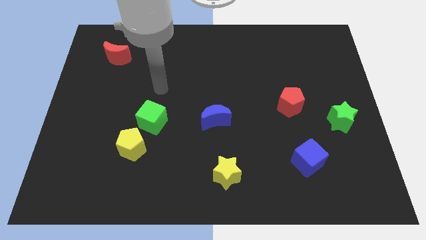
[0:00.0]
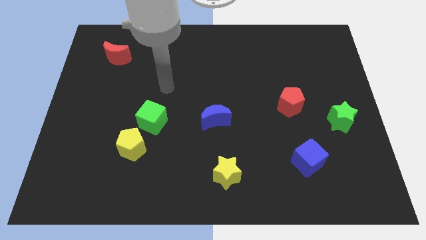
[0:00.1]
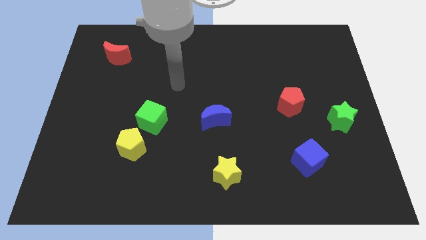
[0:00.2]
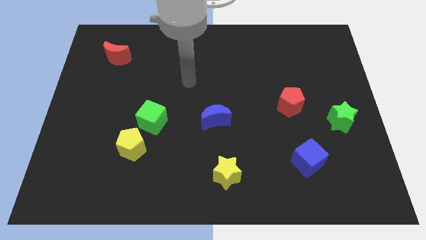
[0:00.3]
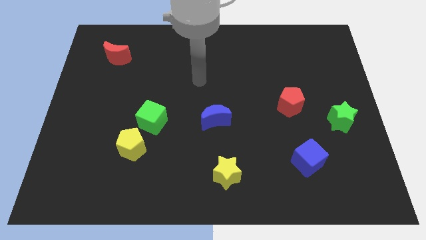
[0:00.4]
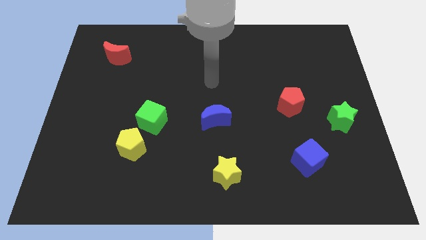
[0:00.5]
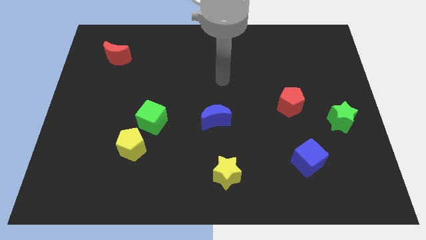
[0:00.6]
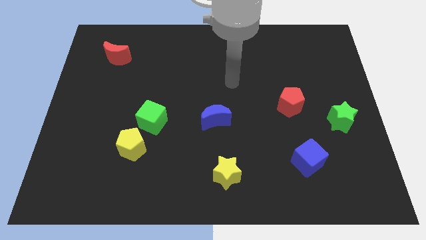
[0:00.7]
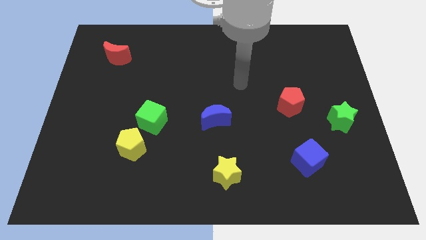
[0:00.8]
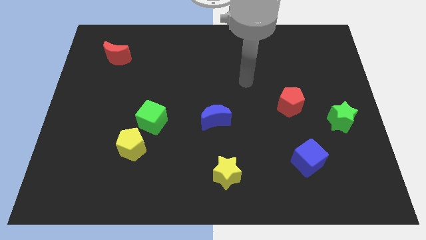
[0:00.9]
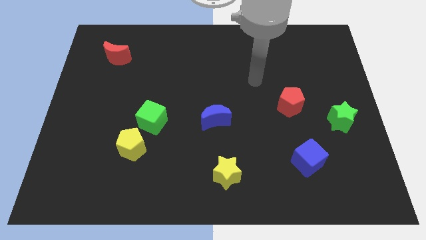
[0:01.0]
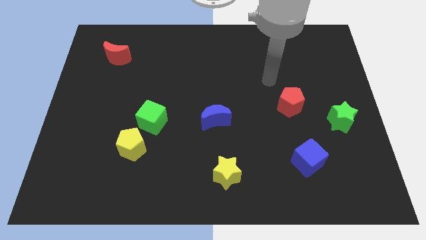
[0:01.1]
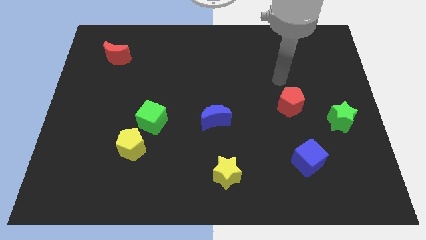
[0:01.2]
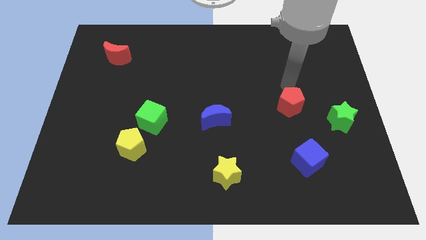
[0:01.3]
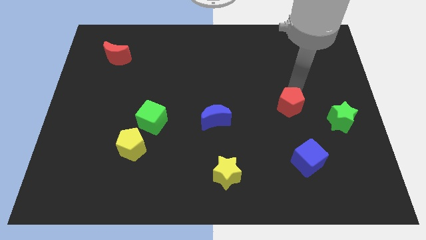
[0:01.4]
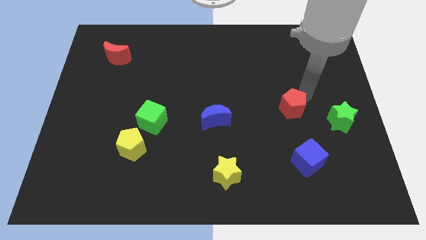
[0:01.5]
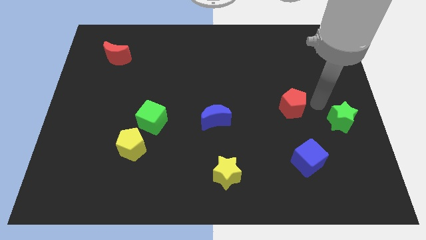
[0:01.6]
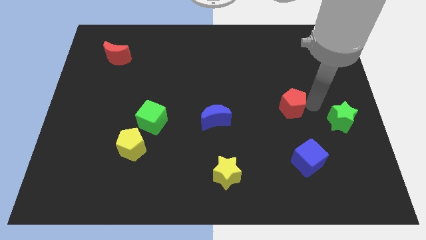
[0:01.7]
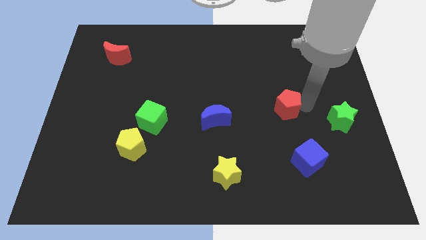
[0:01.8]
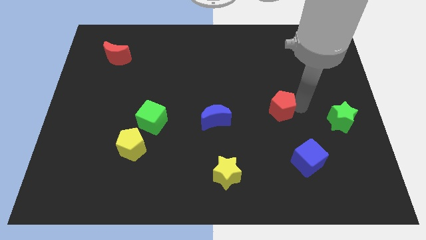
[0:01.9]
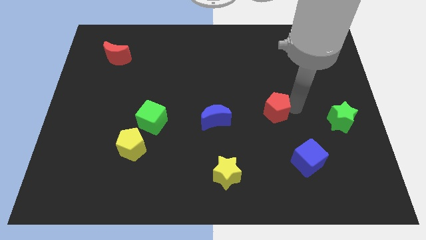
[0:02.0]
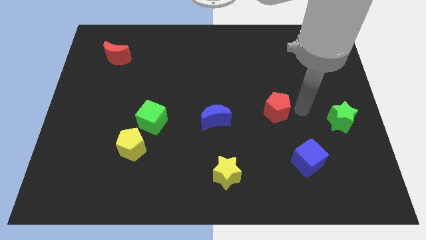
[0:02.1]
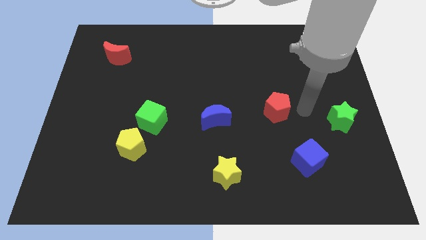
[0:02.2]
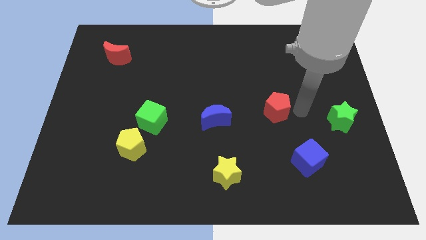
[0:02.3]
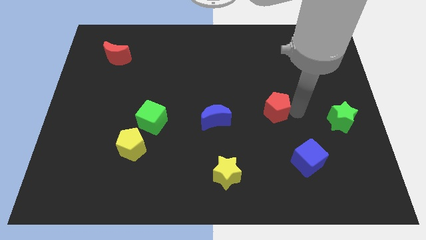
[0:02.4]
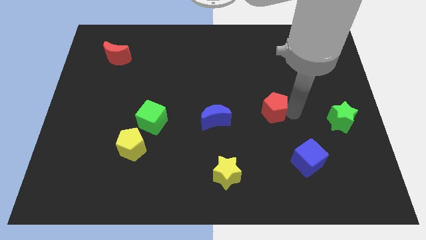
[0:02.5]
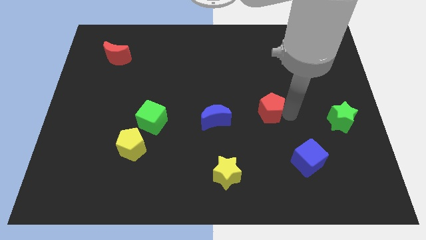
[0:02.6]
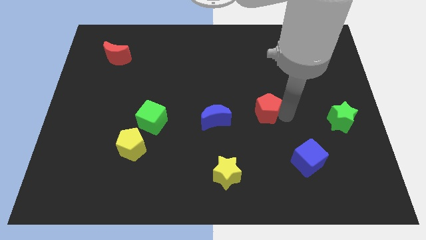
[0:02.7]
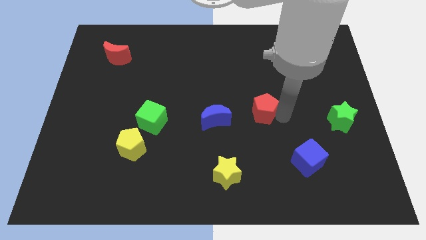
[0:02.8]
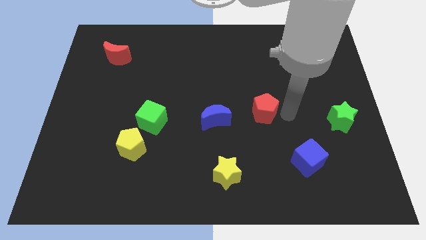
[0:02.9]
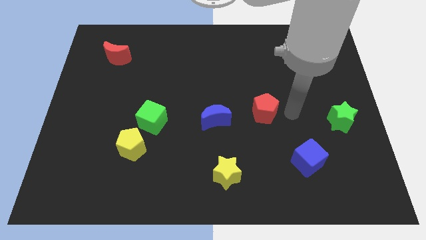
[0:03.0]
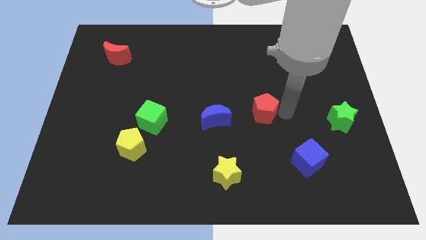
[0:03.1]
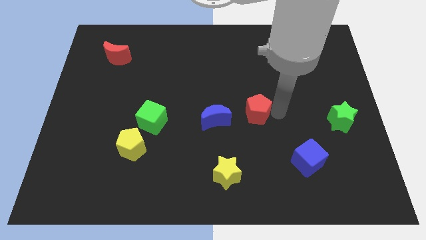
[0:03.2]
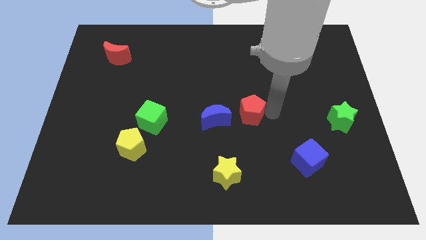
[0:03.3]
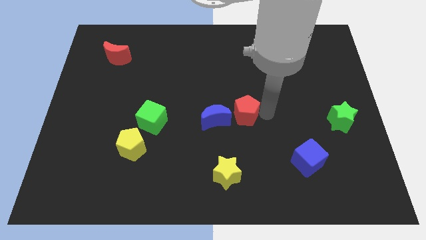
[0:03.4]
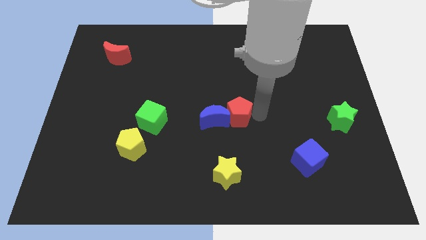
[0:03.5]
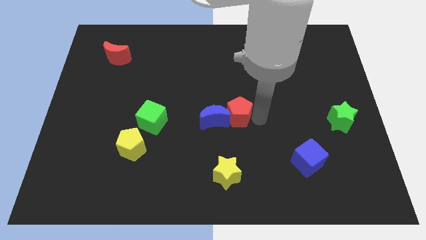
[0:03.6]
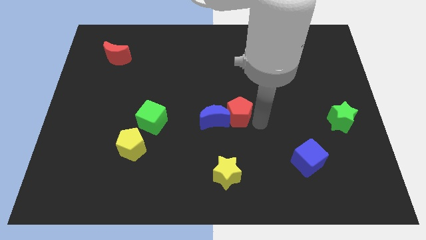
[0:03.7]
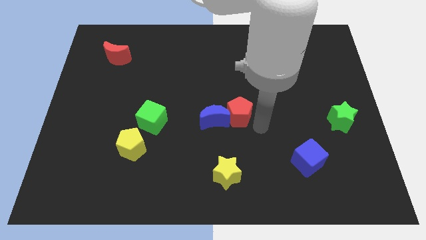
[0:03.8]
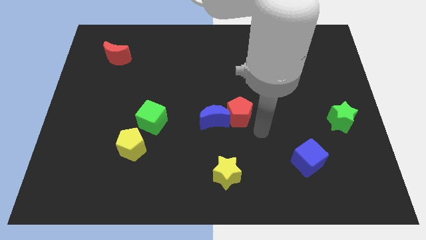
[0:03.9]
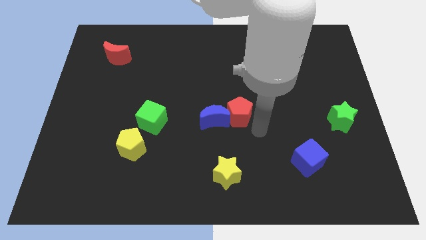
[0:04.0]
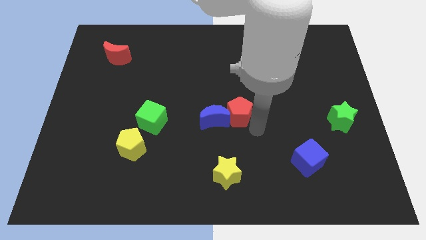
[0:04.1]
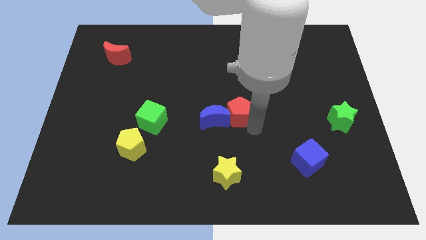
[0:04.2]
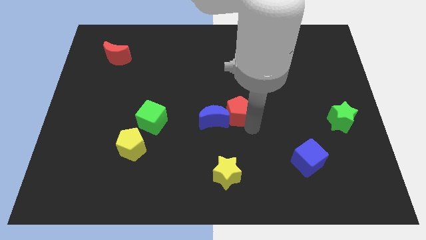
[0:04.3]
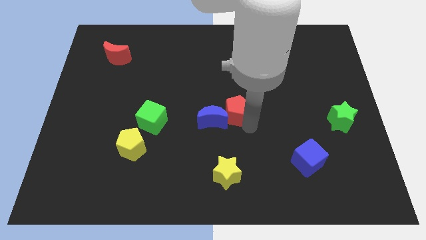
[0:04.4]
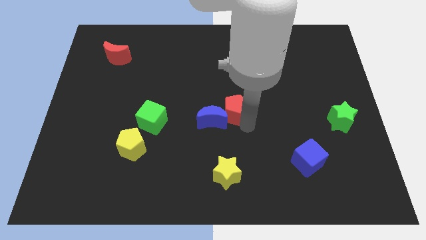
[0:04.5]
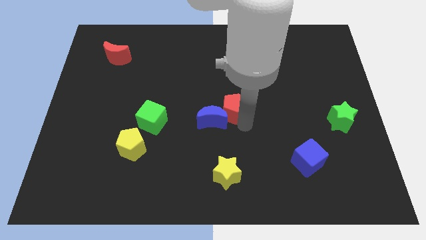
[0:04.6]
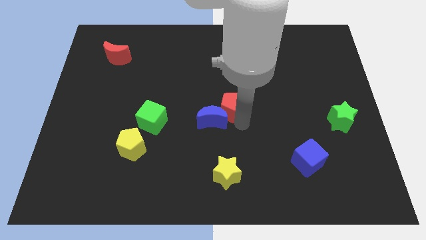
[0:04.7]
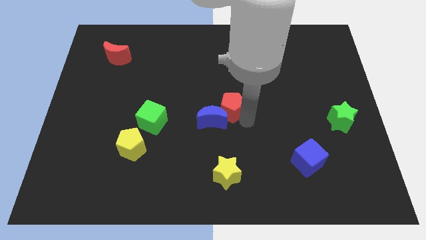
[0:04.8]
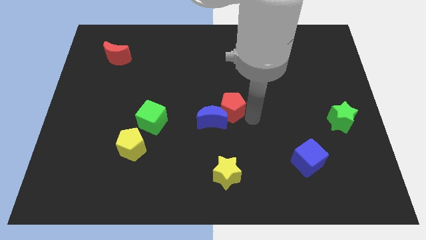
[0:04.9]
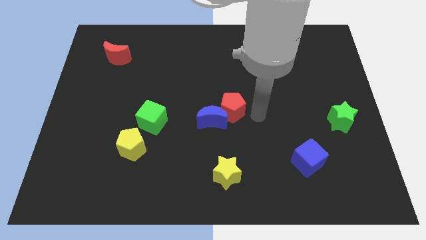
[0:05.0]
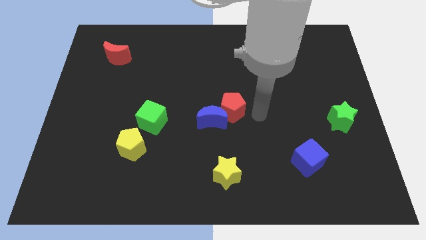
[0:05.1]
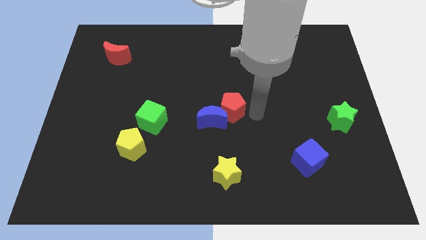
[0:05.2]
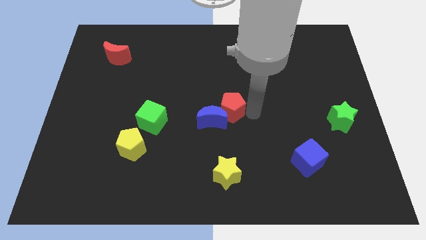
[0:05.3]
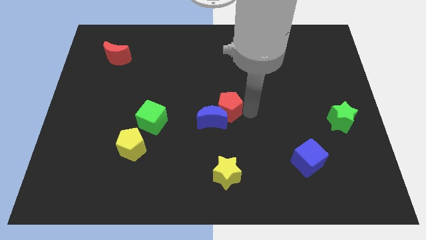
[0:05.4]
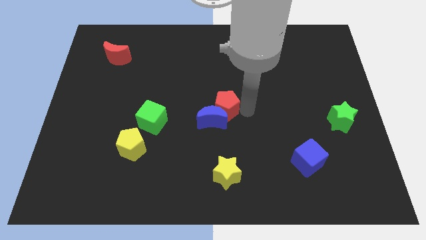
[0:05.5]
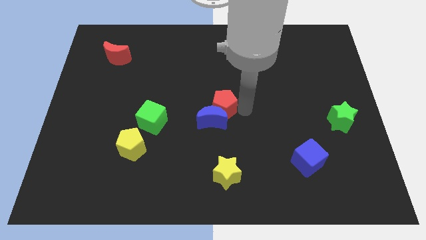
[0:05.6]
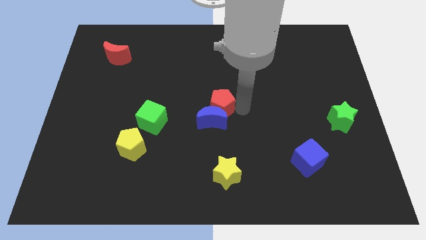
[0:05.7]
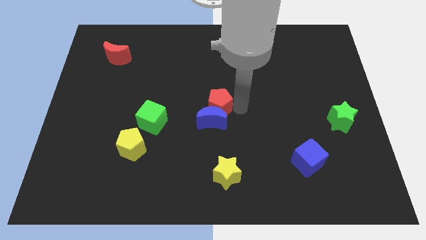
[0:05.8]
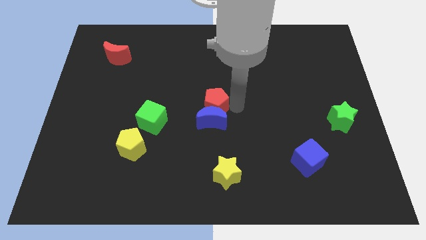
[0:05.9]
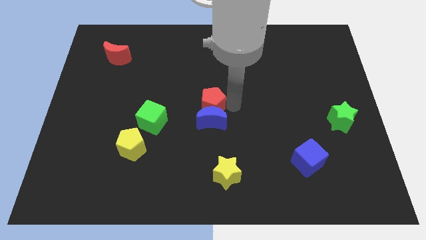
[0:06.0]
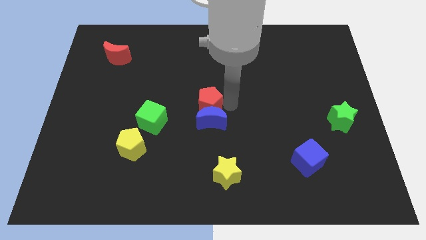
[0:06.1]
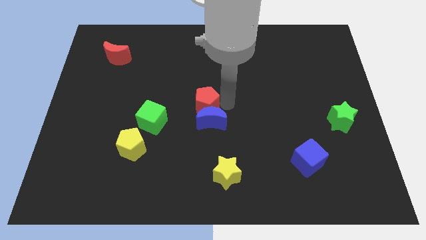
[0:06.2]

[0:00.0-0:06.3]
slide the red pentagon to the left

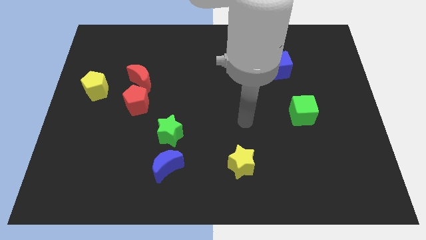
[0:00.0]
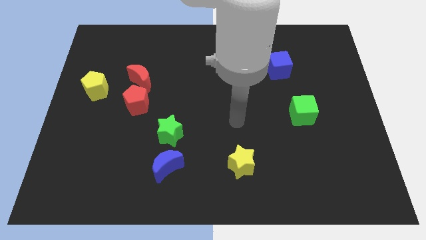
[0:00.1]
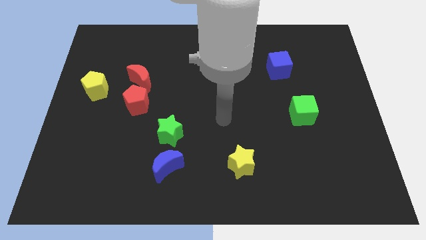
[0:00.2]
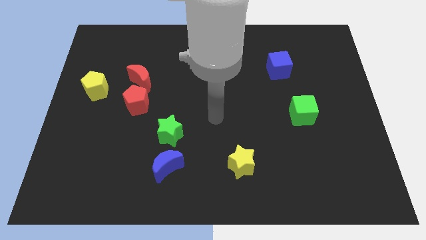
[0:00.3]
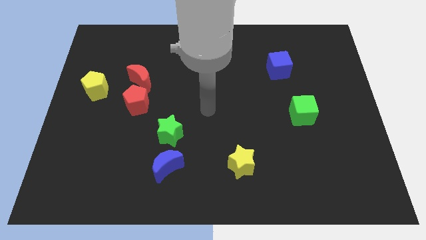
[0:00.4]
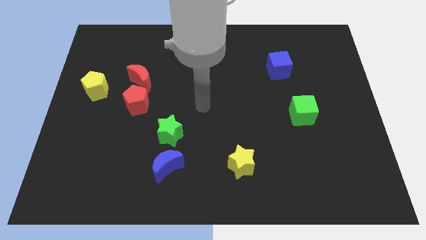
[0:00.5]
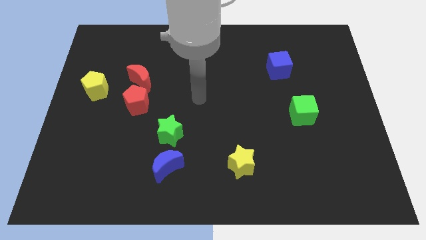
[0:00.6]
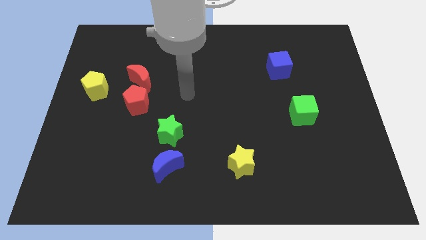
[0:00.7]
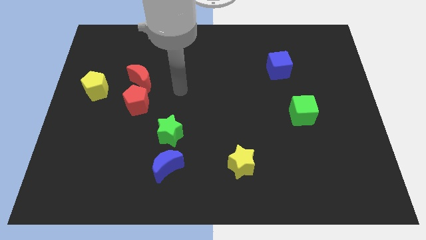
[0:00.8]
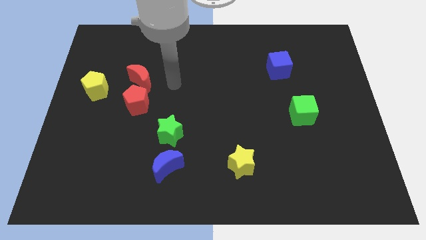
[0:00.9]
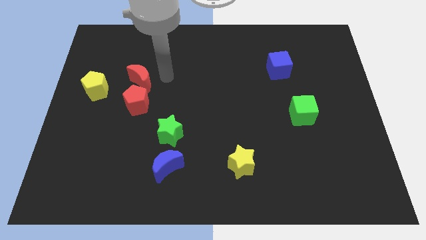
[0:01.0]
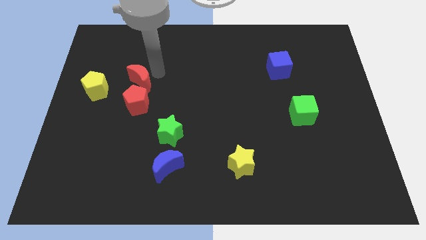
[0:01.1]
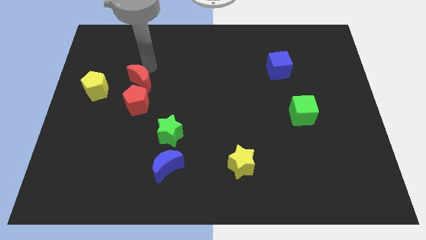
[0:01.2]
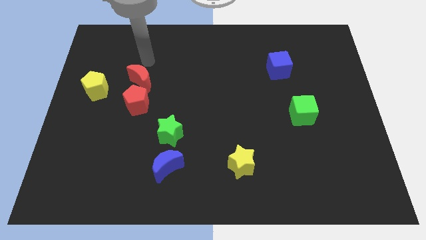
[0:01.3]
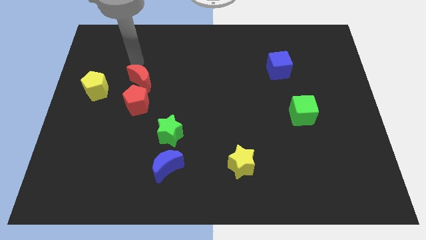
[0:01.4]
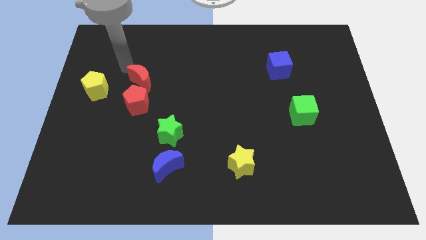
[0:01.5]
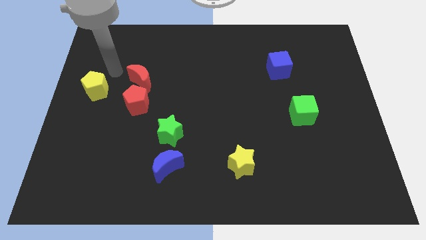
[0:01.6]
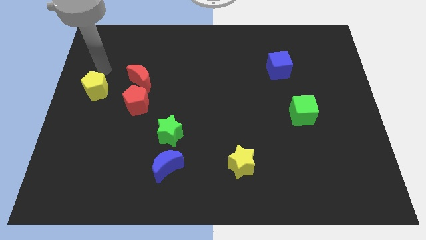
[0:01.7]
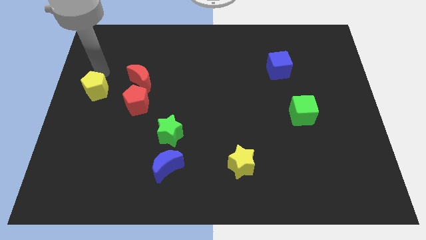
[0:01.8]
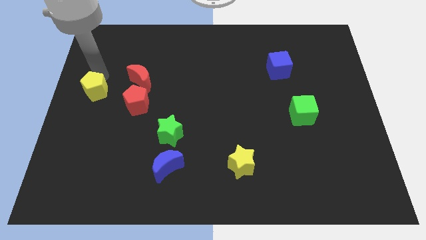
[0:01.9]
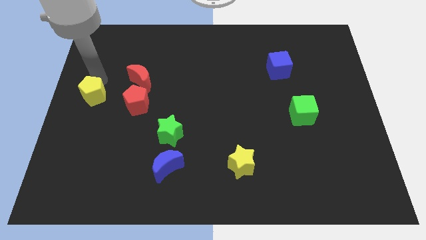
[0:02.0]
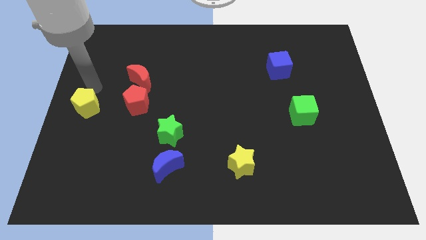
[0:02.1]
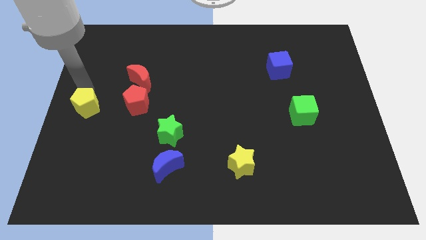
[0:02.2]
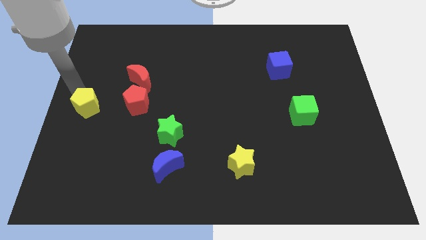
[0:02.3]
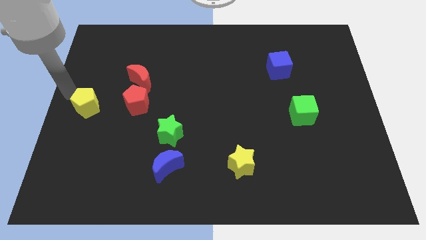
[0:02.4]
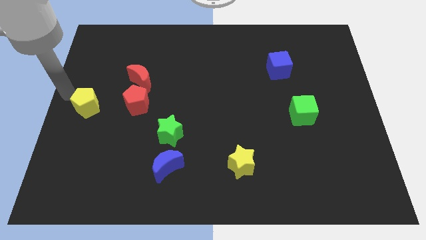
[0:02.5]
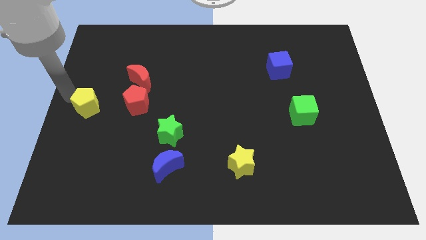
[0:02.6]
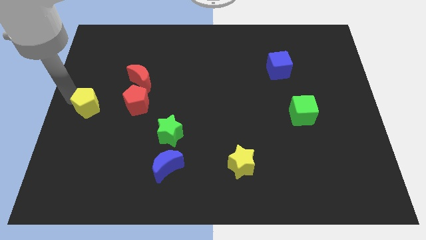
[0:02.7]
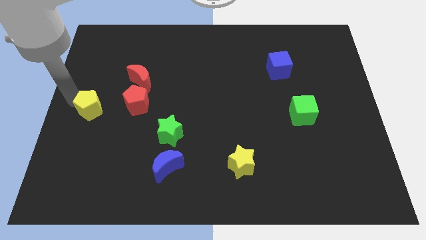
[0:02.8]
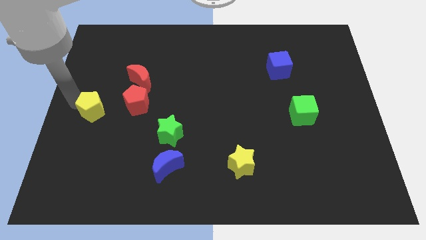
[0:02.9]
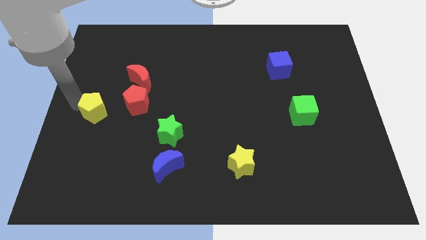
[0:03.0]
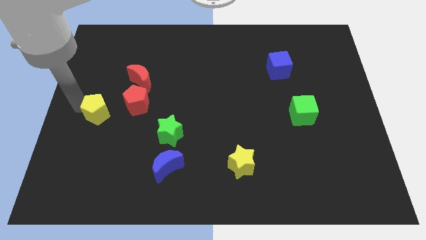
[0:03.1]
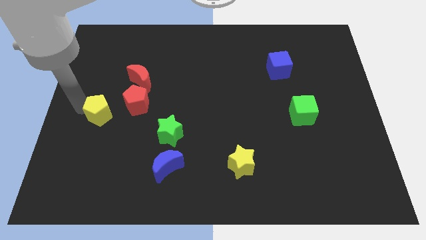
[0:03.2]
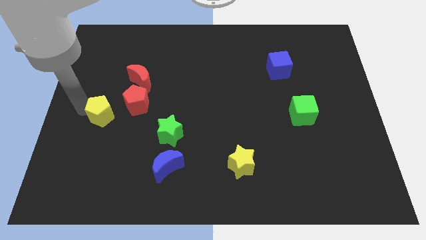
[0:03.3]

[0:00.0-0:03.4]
push the yellow pentagon down and to the right diagonally somewhat
